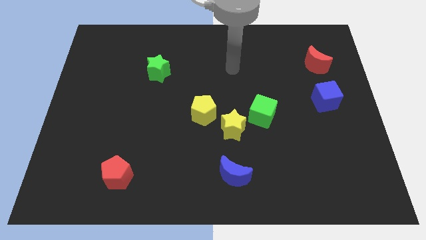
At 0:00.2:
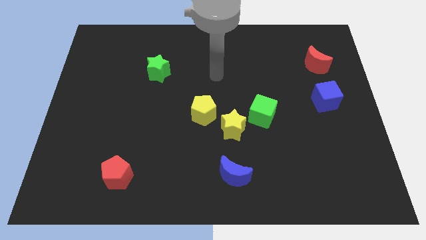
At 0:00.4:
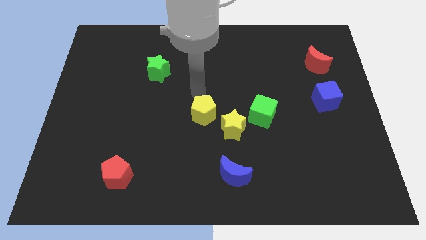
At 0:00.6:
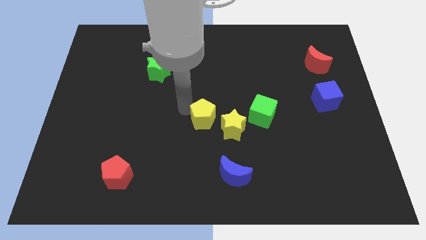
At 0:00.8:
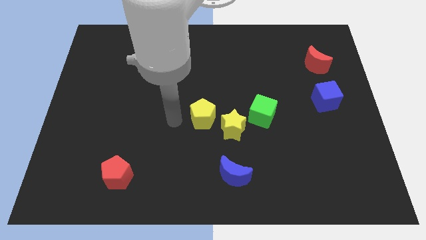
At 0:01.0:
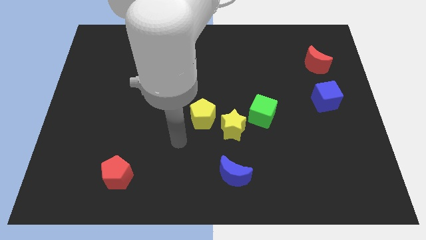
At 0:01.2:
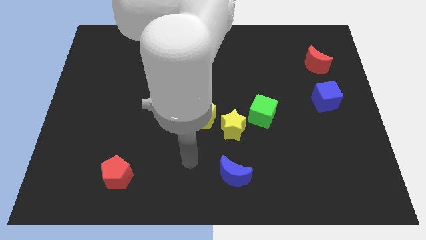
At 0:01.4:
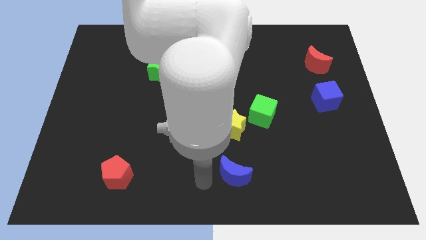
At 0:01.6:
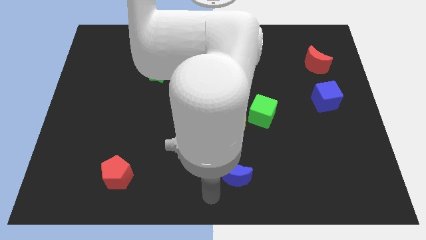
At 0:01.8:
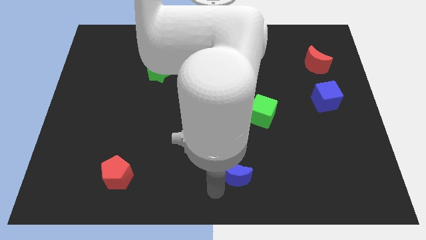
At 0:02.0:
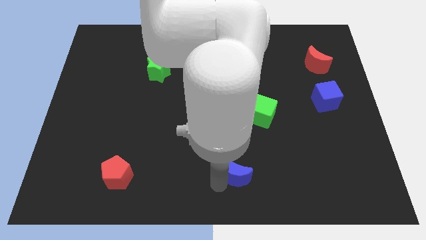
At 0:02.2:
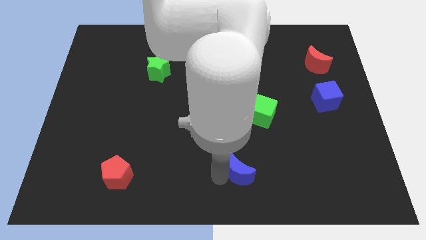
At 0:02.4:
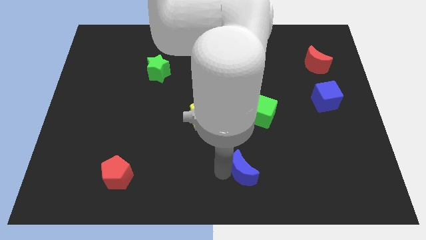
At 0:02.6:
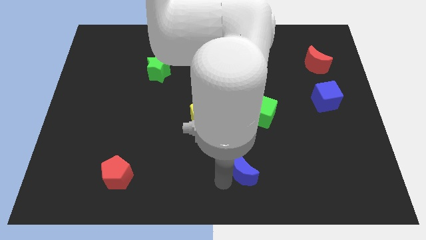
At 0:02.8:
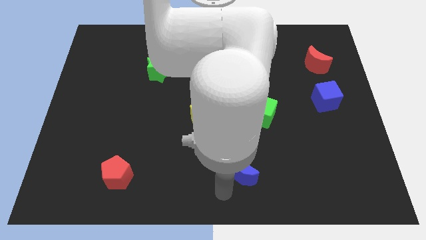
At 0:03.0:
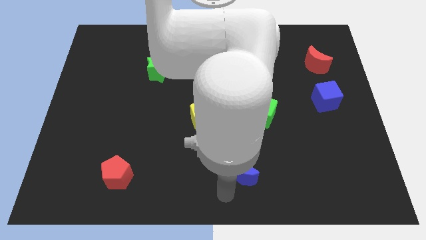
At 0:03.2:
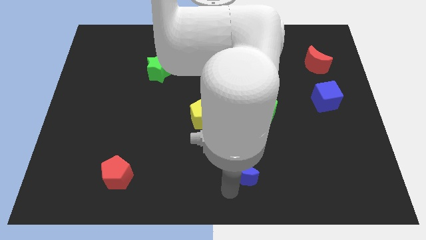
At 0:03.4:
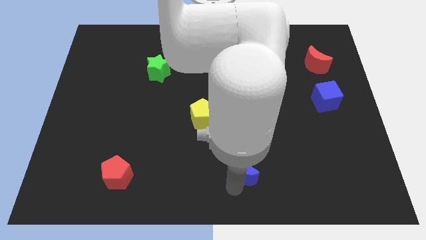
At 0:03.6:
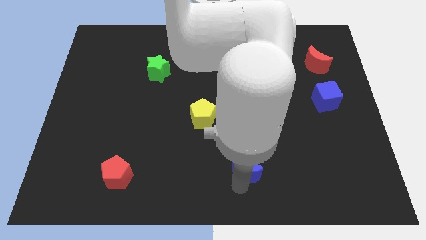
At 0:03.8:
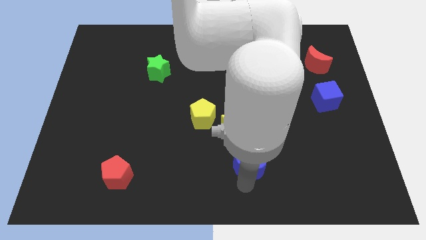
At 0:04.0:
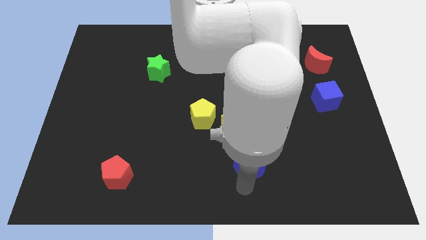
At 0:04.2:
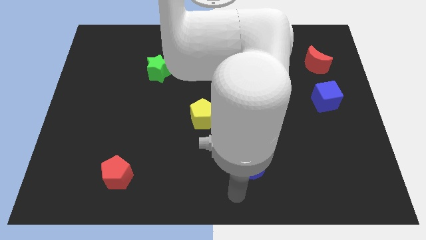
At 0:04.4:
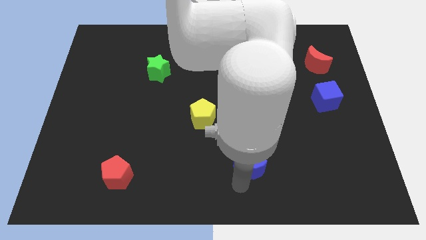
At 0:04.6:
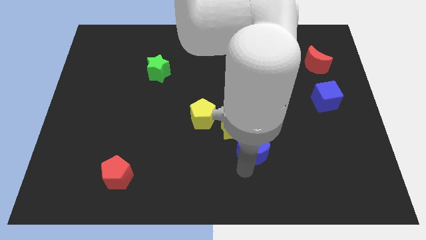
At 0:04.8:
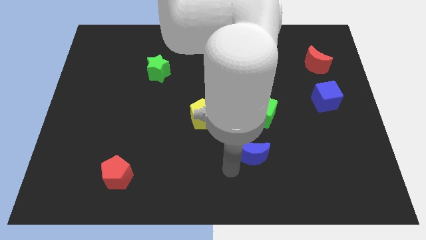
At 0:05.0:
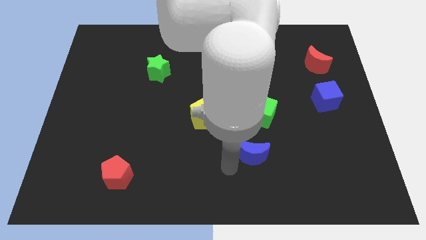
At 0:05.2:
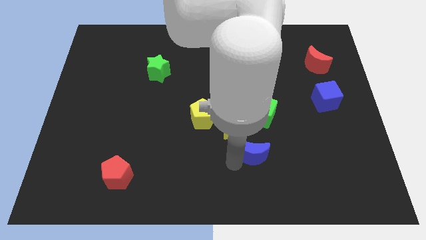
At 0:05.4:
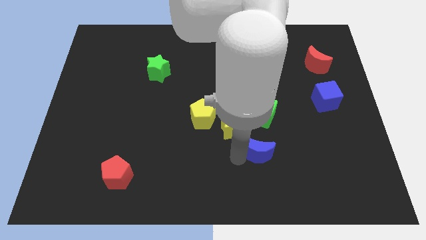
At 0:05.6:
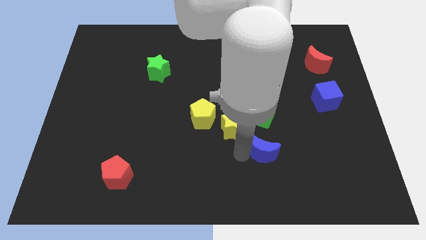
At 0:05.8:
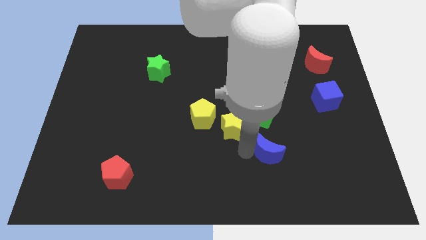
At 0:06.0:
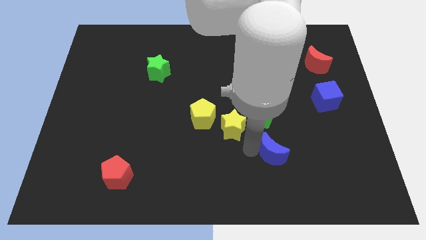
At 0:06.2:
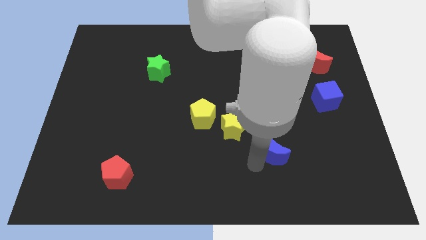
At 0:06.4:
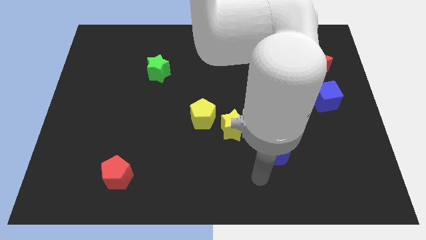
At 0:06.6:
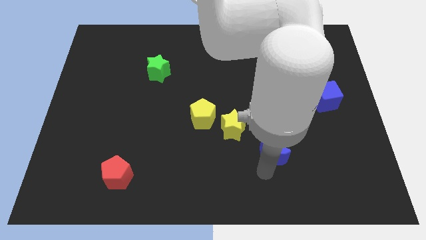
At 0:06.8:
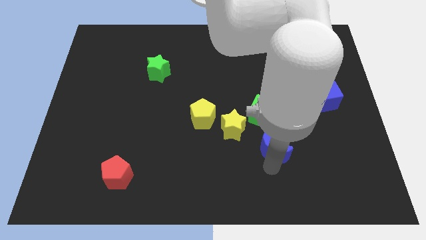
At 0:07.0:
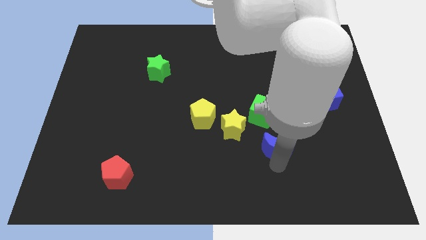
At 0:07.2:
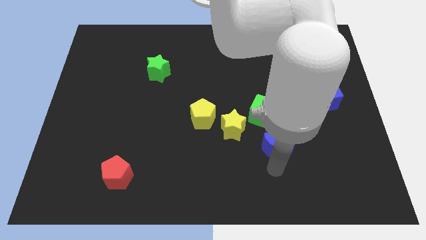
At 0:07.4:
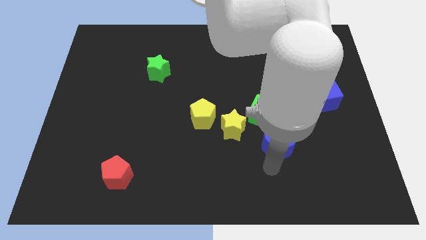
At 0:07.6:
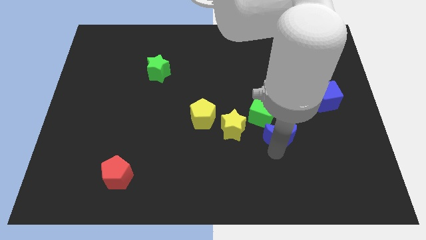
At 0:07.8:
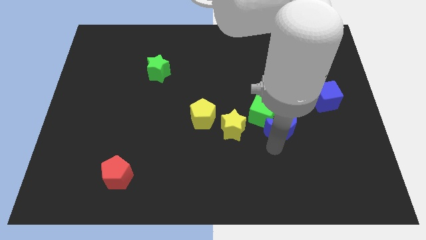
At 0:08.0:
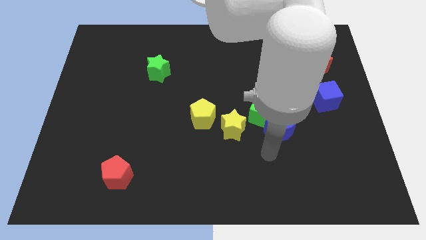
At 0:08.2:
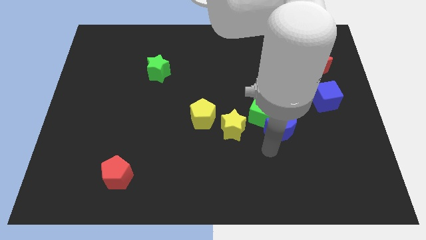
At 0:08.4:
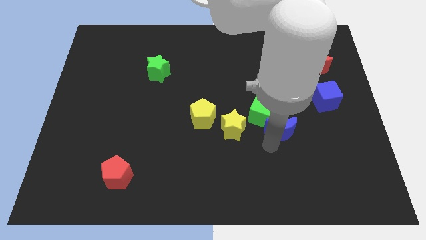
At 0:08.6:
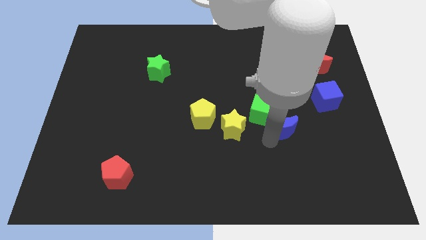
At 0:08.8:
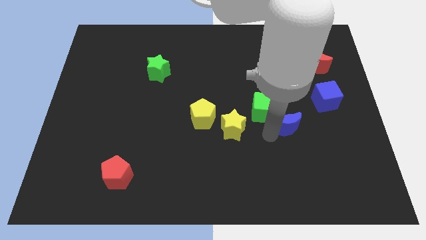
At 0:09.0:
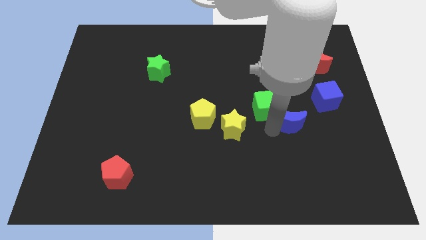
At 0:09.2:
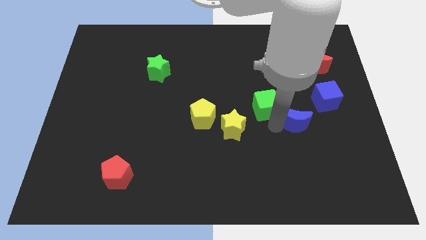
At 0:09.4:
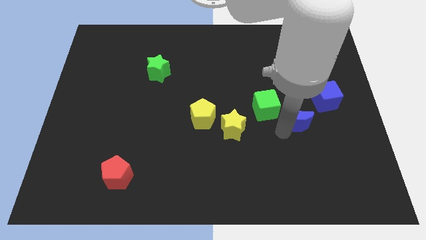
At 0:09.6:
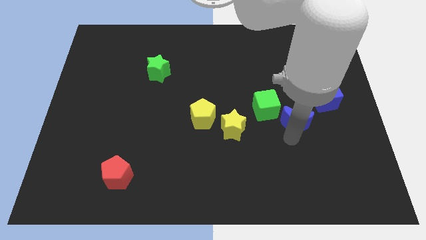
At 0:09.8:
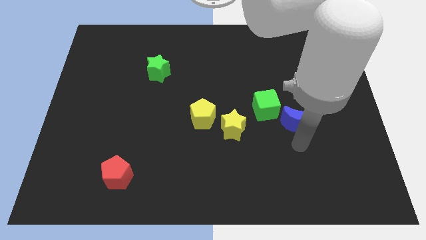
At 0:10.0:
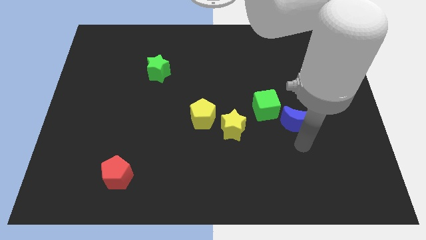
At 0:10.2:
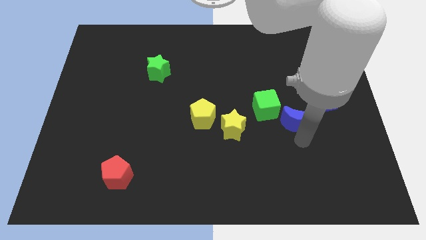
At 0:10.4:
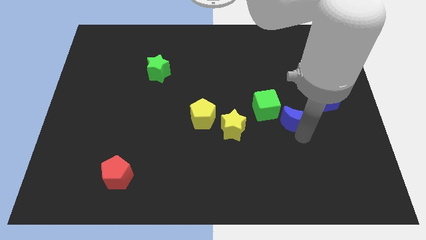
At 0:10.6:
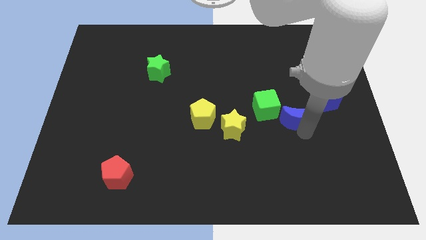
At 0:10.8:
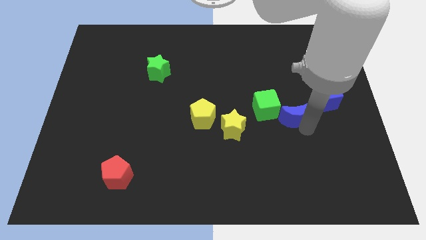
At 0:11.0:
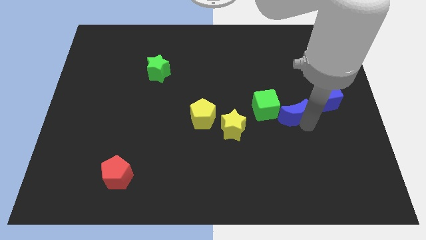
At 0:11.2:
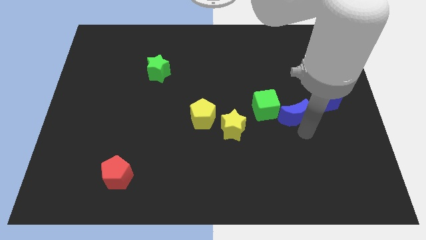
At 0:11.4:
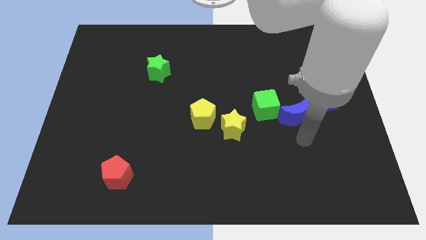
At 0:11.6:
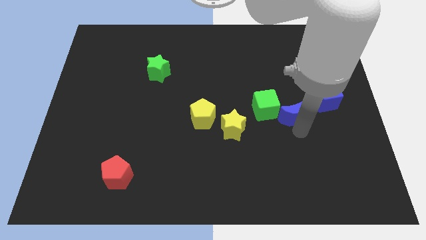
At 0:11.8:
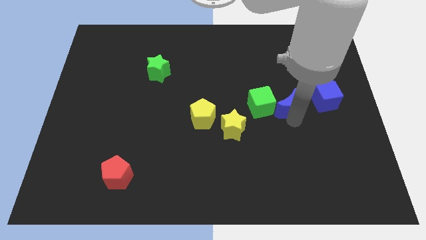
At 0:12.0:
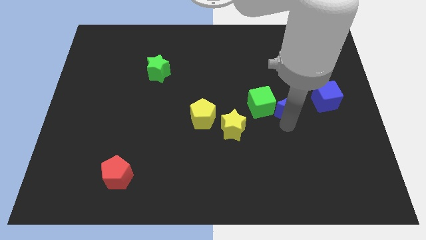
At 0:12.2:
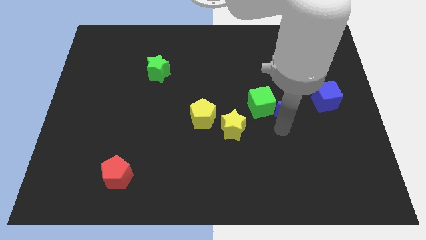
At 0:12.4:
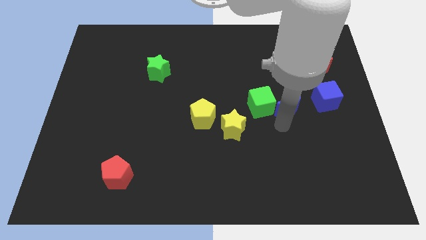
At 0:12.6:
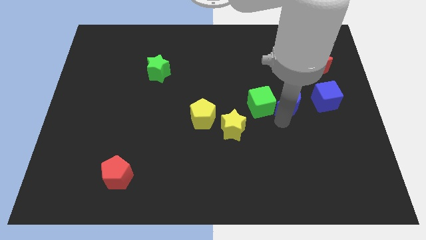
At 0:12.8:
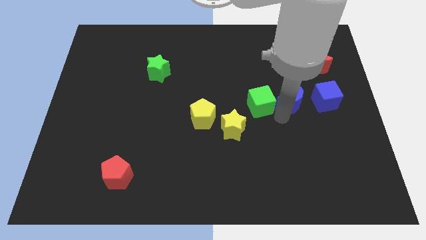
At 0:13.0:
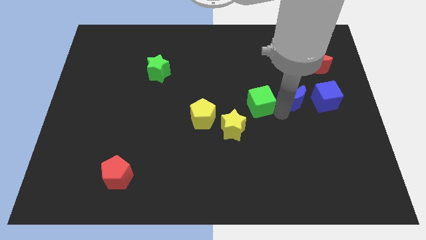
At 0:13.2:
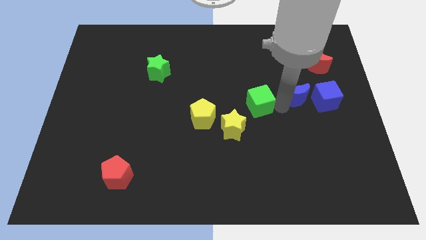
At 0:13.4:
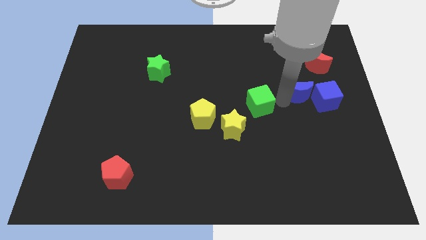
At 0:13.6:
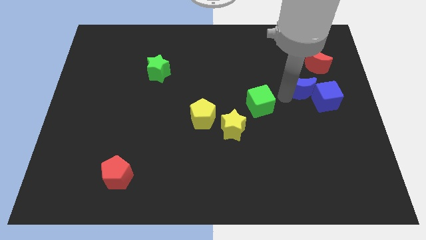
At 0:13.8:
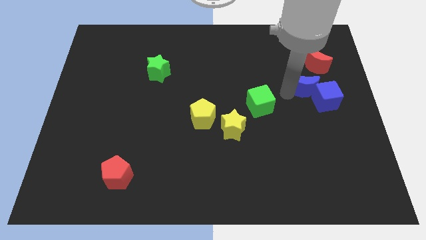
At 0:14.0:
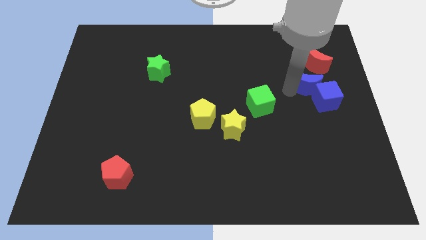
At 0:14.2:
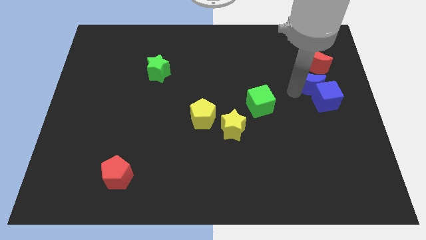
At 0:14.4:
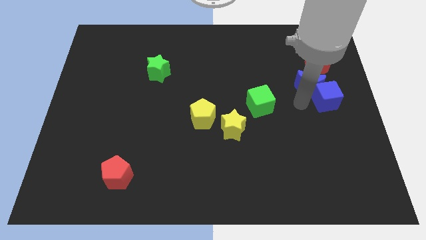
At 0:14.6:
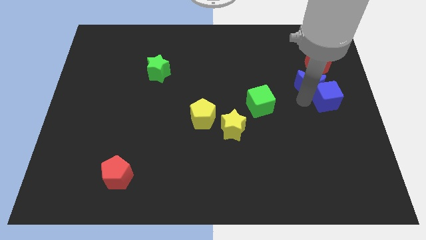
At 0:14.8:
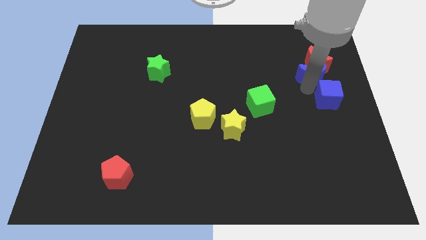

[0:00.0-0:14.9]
push the blue moon to the red moon
